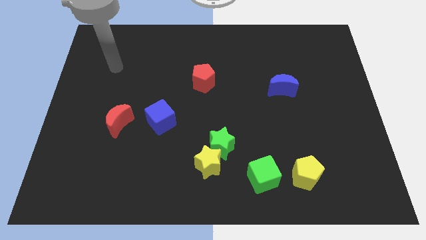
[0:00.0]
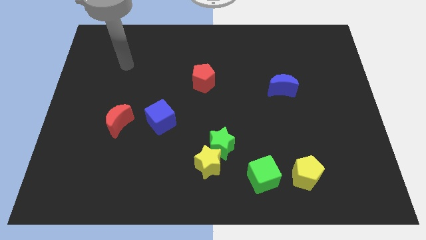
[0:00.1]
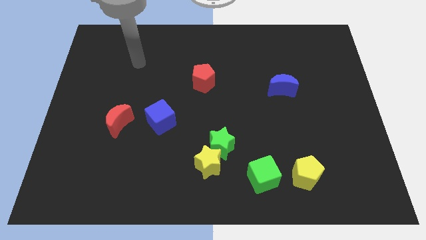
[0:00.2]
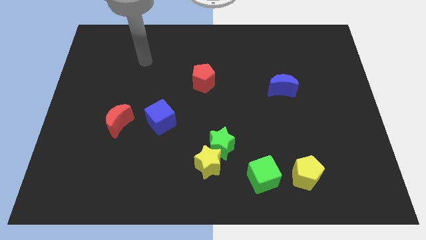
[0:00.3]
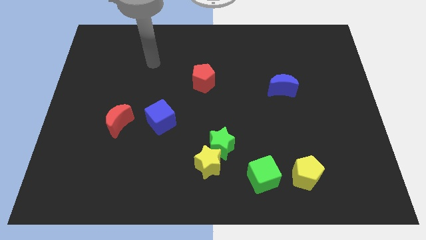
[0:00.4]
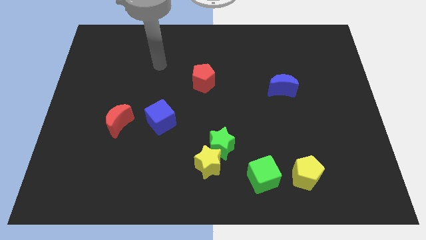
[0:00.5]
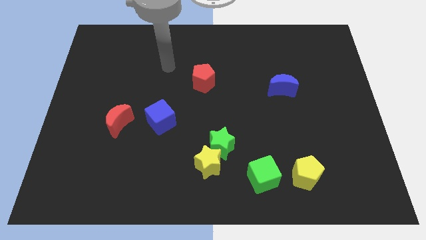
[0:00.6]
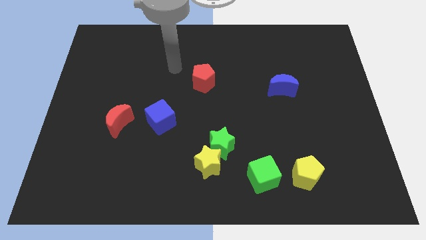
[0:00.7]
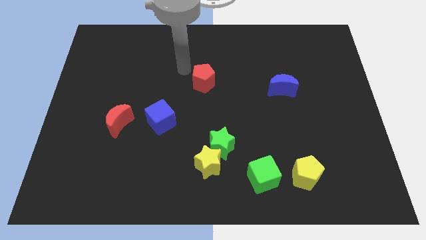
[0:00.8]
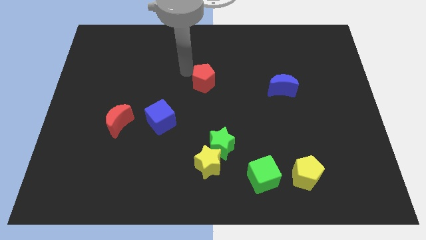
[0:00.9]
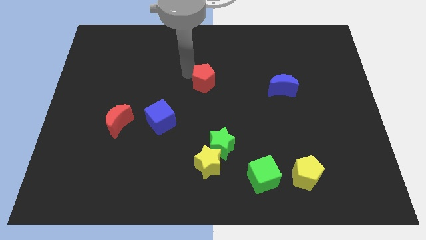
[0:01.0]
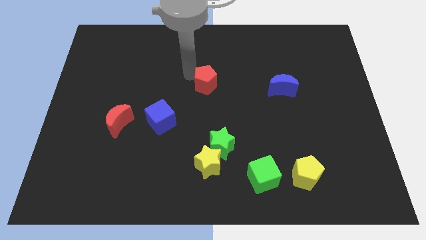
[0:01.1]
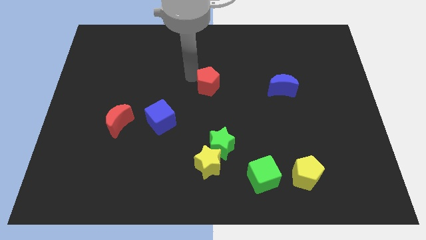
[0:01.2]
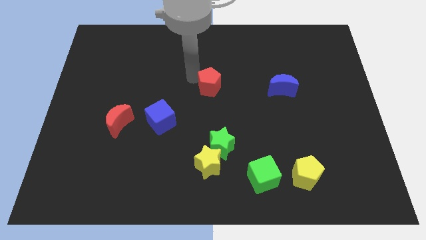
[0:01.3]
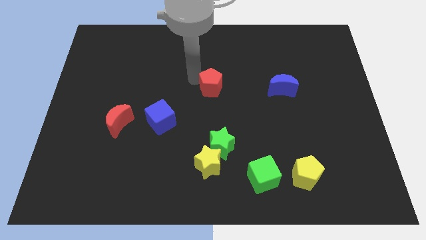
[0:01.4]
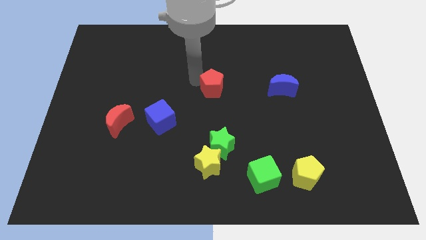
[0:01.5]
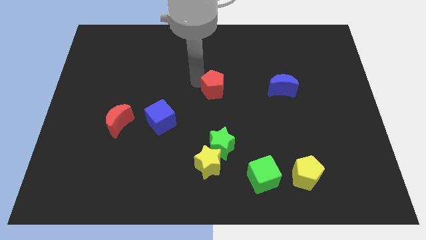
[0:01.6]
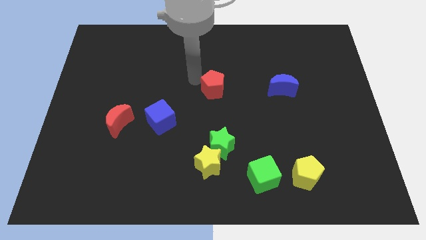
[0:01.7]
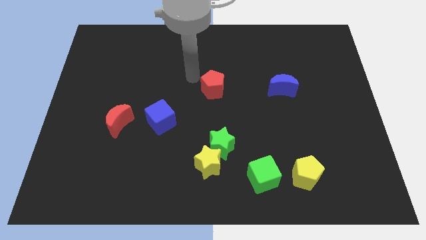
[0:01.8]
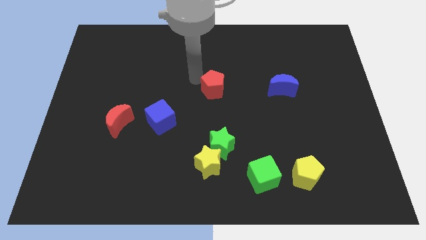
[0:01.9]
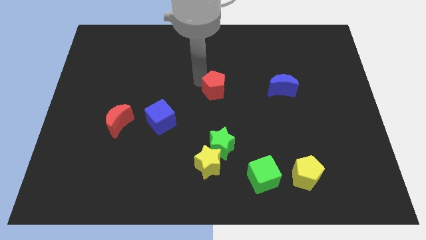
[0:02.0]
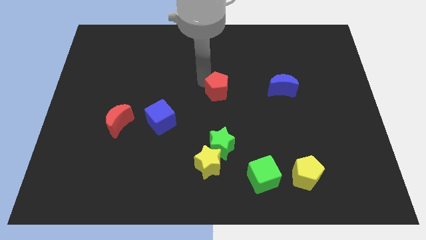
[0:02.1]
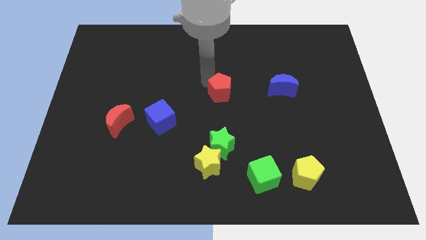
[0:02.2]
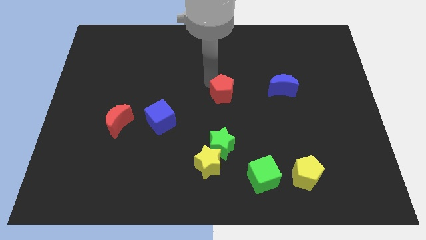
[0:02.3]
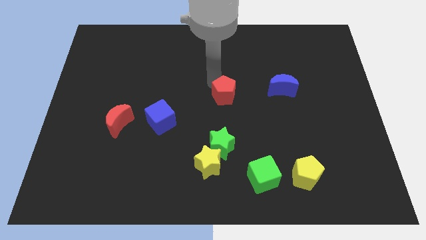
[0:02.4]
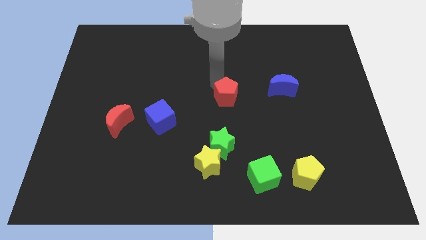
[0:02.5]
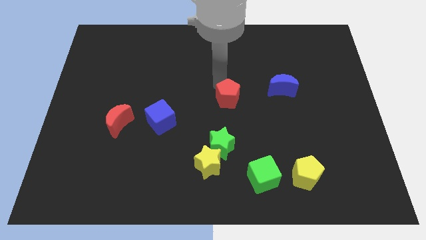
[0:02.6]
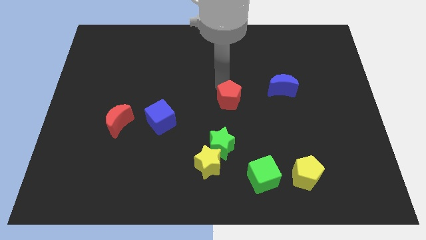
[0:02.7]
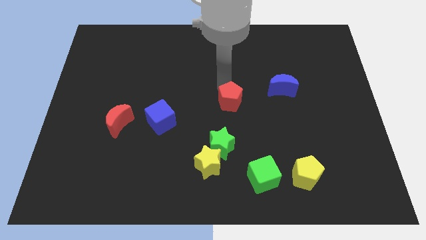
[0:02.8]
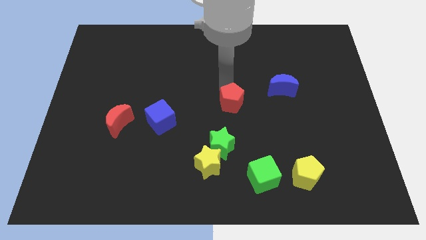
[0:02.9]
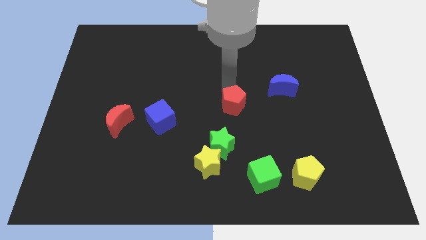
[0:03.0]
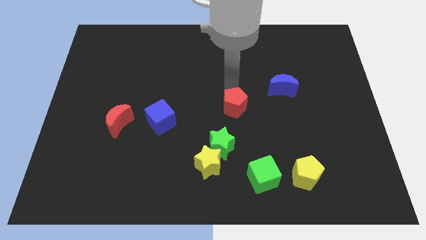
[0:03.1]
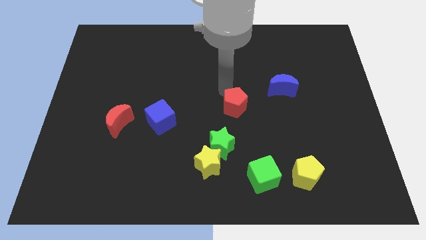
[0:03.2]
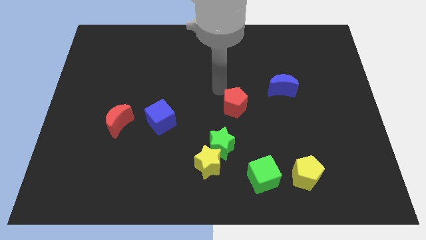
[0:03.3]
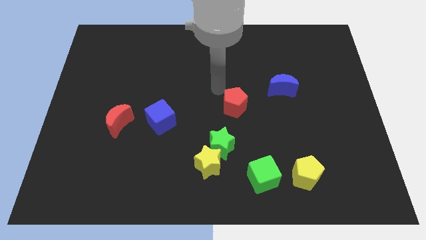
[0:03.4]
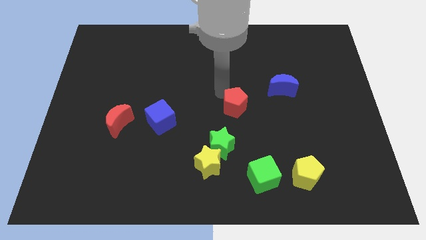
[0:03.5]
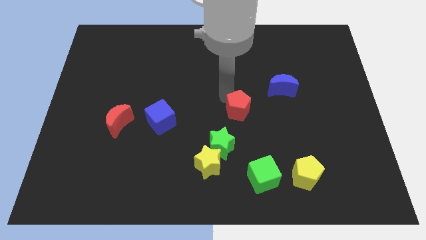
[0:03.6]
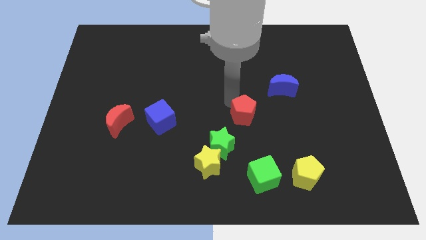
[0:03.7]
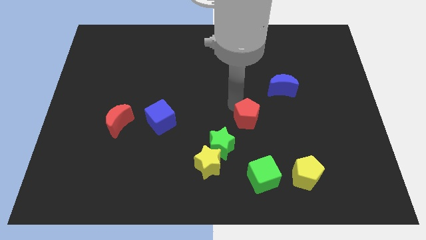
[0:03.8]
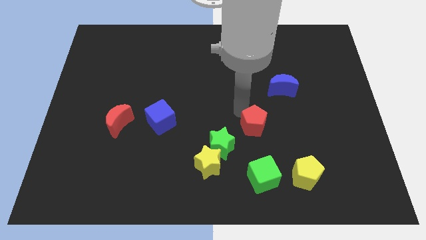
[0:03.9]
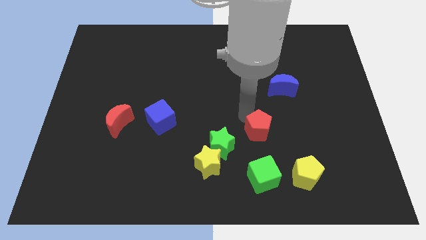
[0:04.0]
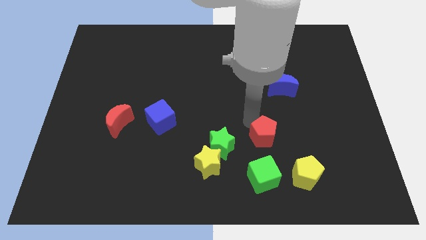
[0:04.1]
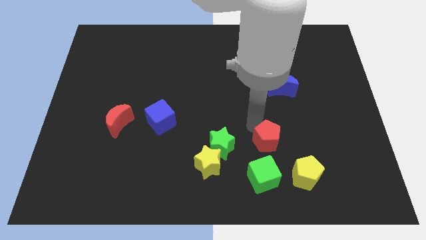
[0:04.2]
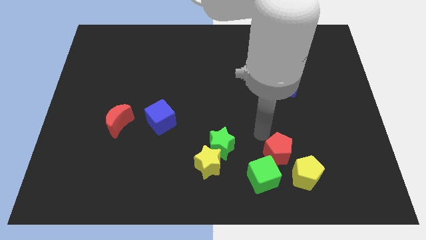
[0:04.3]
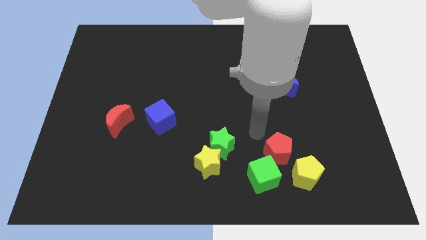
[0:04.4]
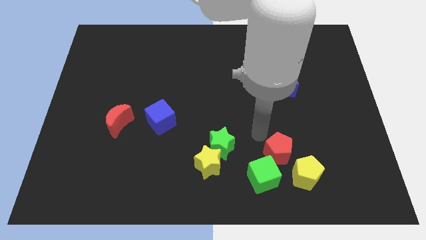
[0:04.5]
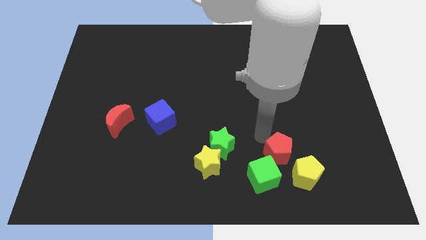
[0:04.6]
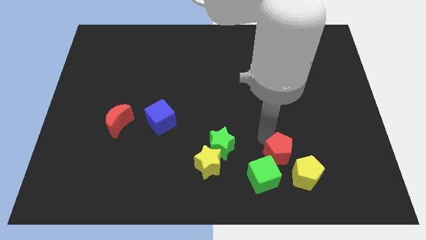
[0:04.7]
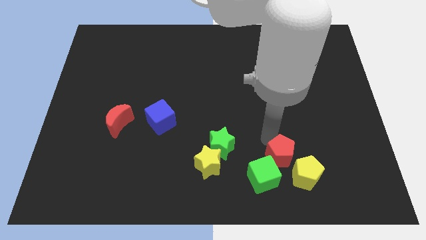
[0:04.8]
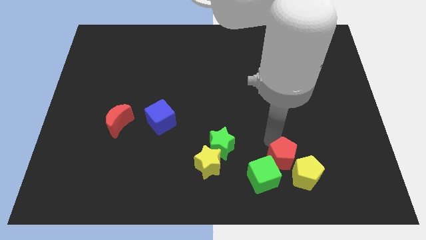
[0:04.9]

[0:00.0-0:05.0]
push the red pentagon towards the yellow pentagon

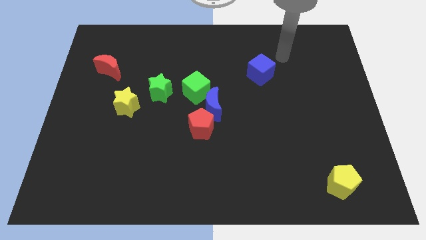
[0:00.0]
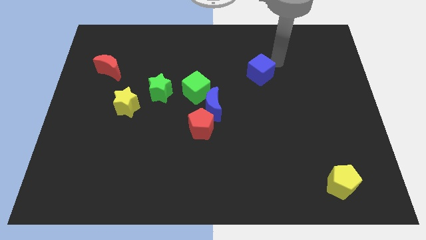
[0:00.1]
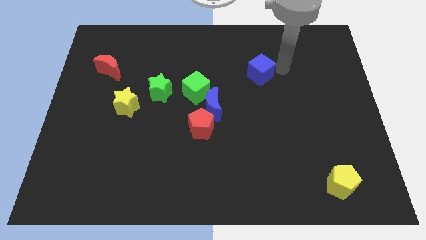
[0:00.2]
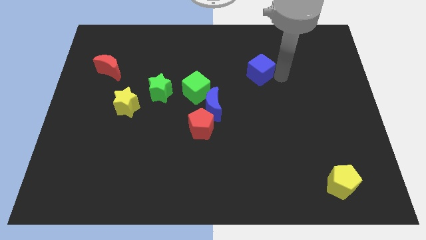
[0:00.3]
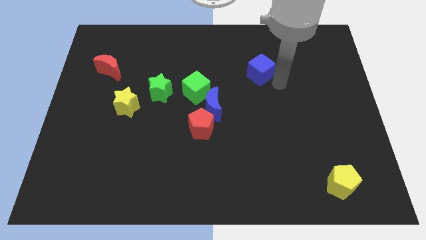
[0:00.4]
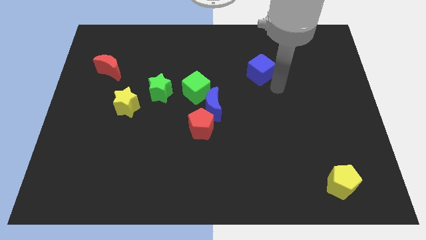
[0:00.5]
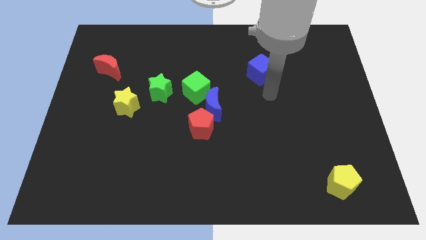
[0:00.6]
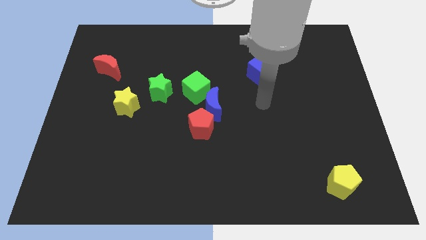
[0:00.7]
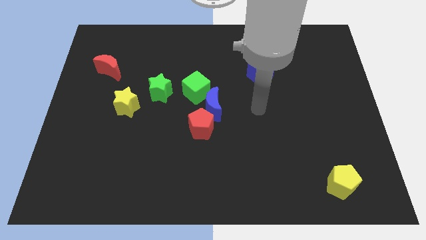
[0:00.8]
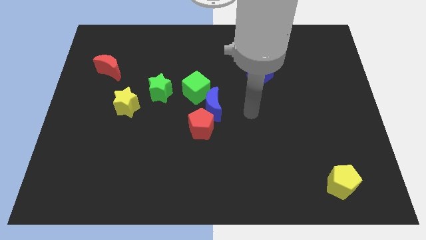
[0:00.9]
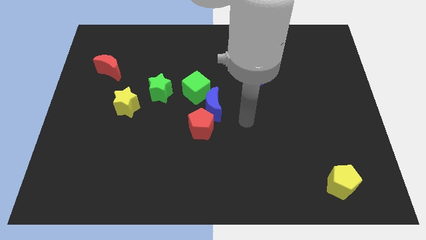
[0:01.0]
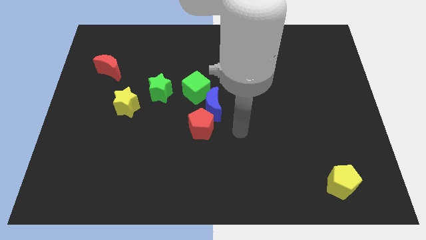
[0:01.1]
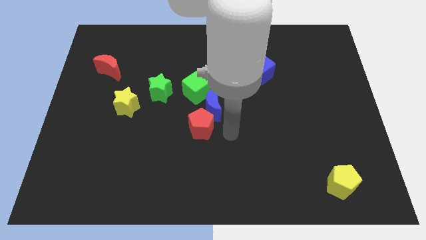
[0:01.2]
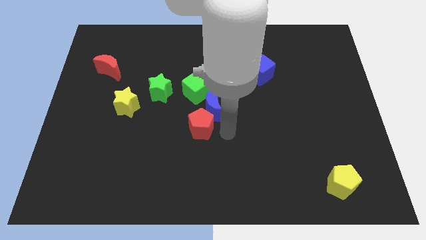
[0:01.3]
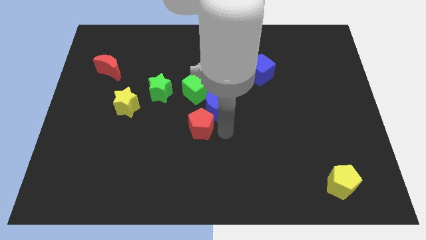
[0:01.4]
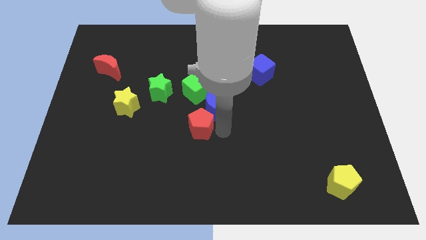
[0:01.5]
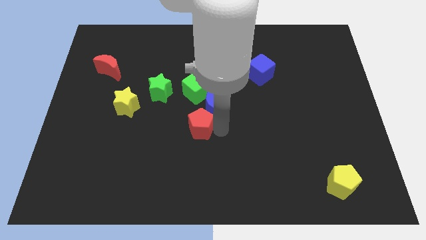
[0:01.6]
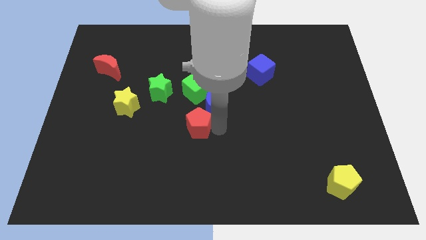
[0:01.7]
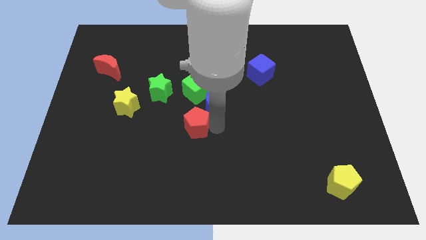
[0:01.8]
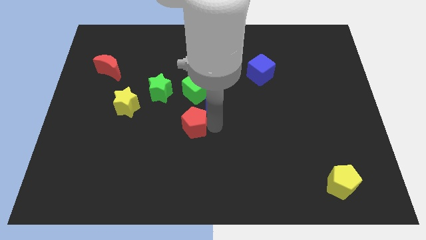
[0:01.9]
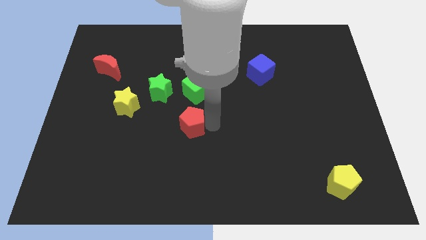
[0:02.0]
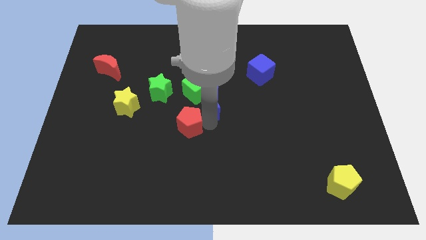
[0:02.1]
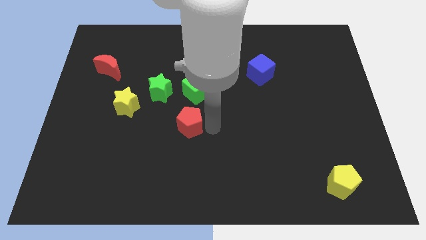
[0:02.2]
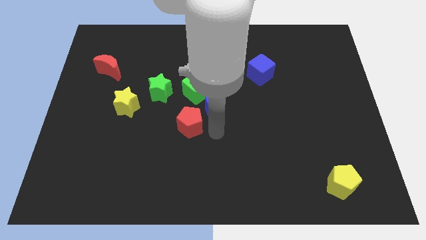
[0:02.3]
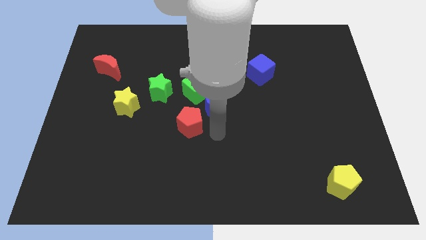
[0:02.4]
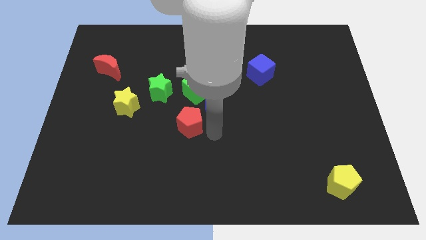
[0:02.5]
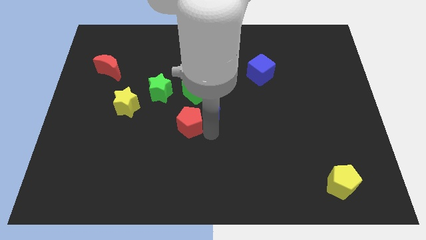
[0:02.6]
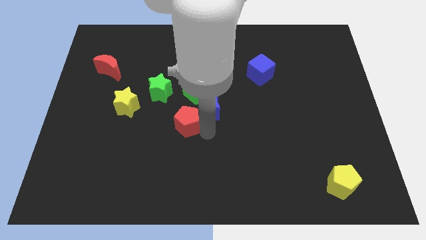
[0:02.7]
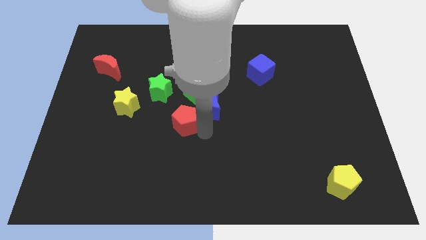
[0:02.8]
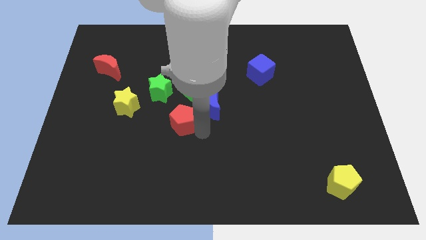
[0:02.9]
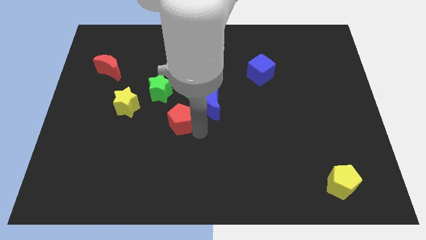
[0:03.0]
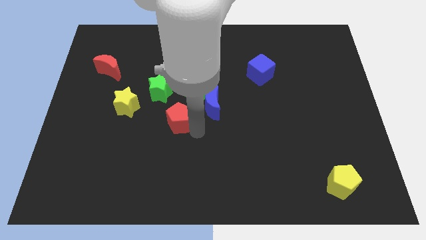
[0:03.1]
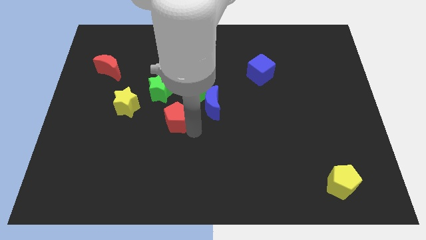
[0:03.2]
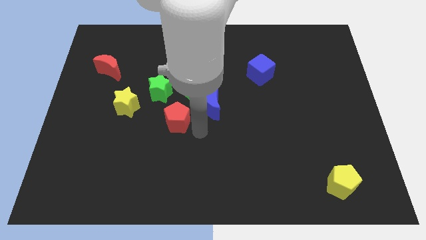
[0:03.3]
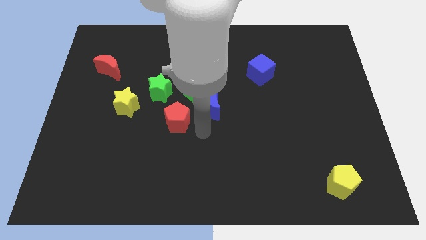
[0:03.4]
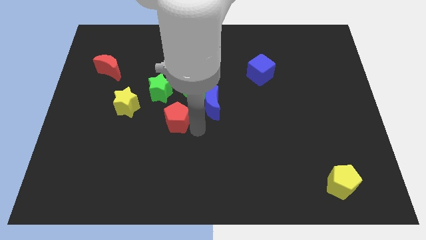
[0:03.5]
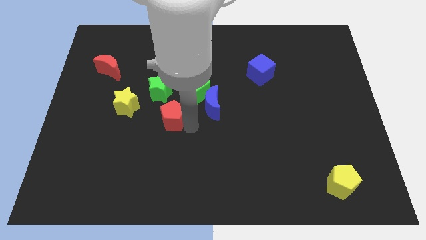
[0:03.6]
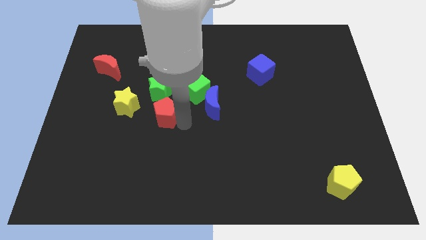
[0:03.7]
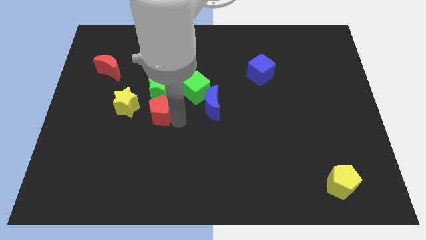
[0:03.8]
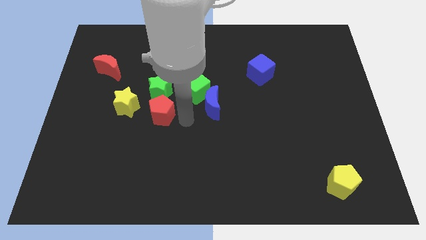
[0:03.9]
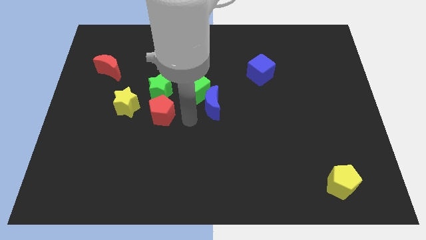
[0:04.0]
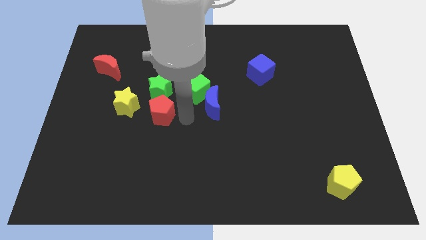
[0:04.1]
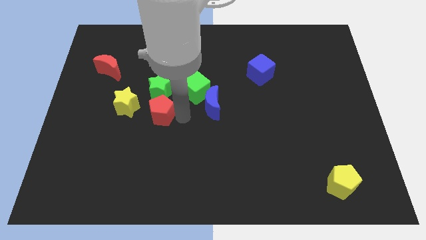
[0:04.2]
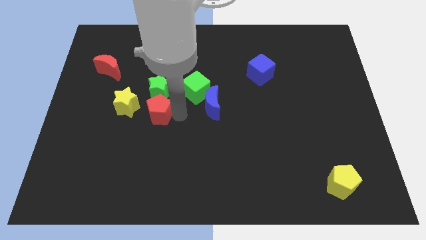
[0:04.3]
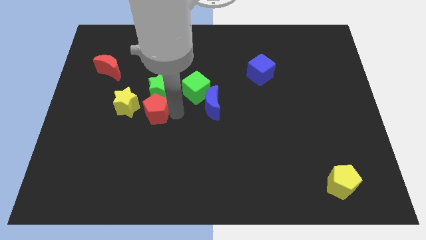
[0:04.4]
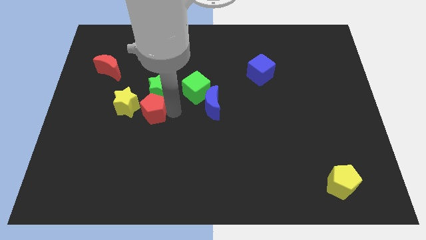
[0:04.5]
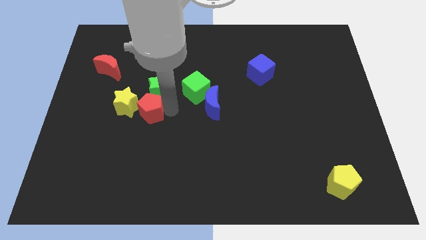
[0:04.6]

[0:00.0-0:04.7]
put the red pentagon to the yellow star
